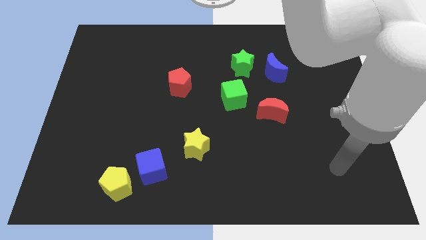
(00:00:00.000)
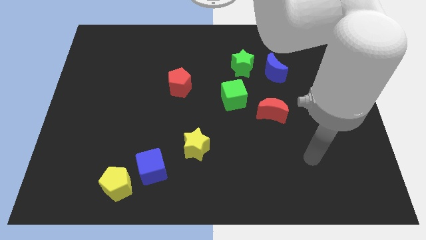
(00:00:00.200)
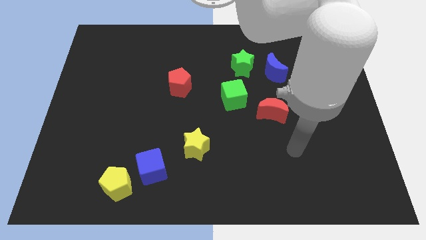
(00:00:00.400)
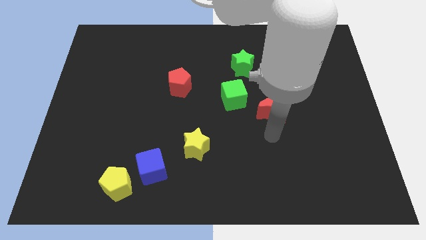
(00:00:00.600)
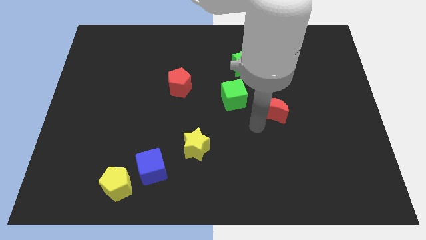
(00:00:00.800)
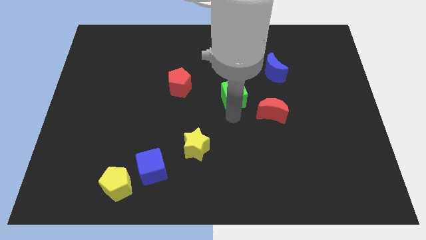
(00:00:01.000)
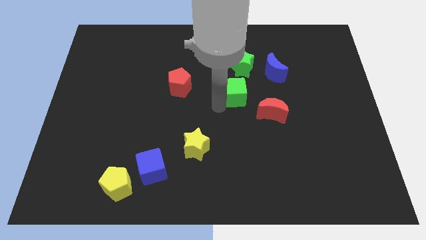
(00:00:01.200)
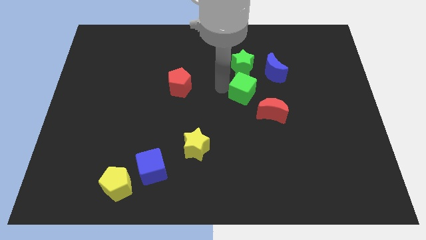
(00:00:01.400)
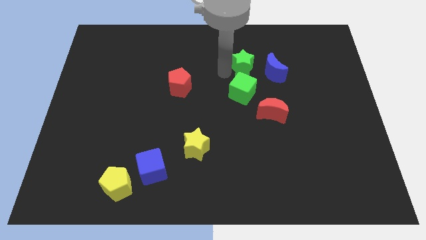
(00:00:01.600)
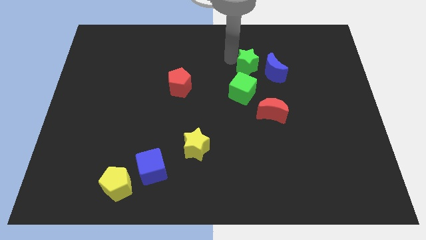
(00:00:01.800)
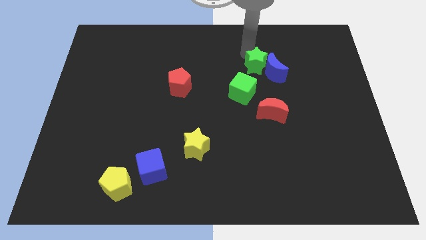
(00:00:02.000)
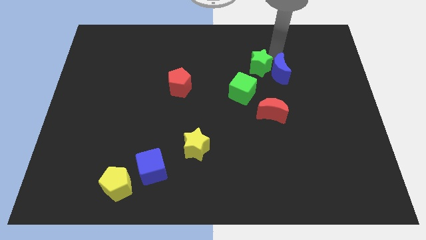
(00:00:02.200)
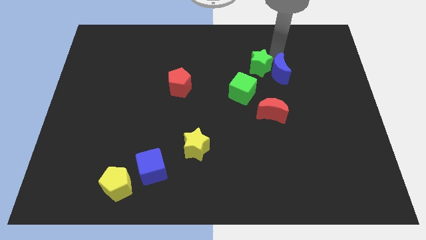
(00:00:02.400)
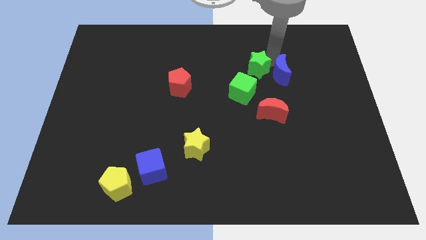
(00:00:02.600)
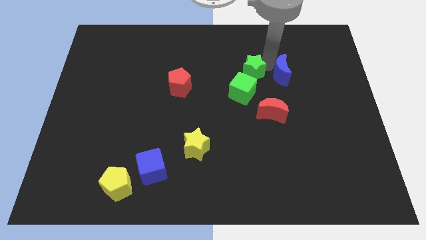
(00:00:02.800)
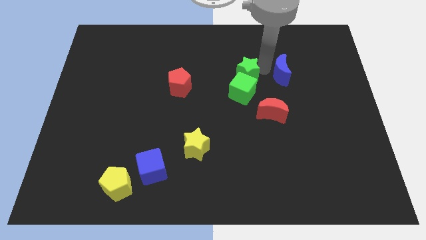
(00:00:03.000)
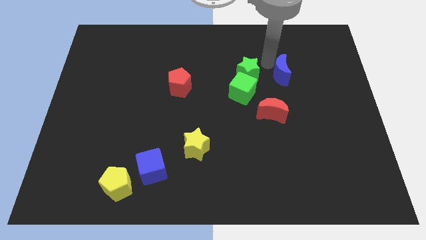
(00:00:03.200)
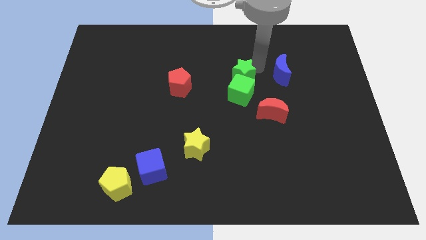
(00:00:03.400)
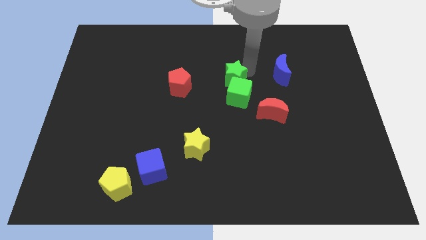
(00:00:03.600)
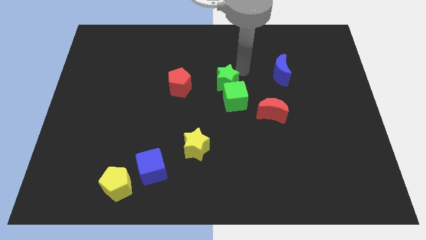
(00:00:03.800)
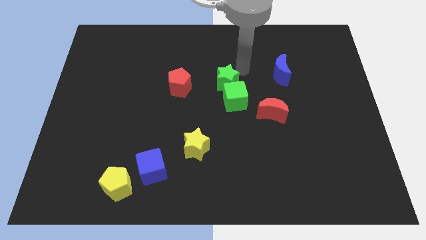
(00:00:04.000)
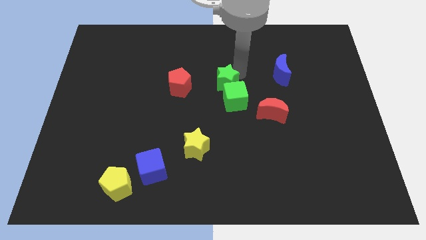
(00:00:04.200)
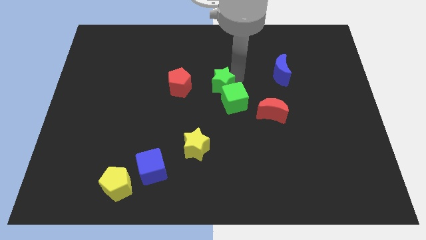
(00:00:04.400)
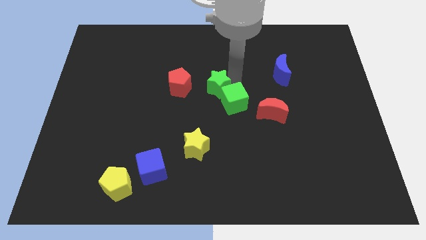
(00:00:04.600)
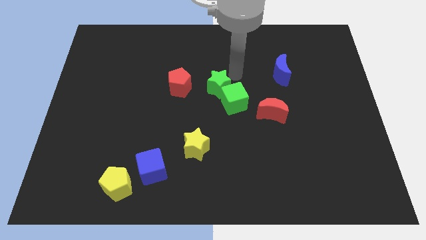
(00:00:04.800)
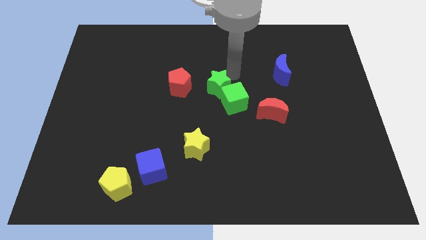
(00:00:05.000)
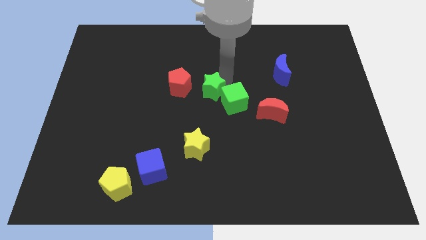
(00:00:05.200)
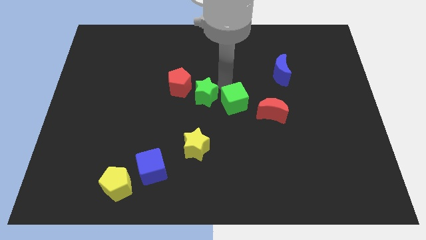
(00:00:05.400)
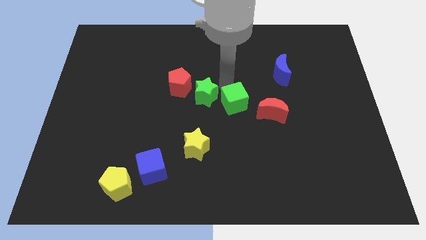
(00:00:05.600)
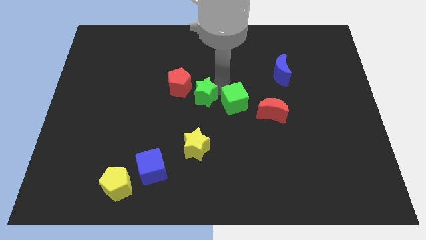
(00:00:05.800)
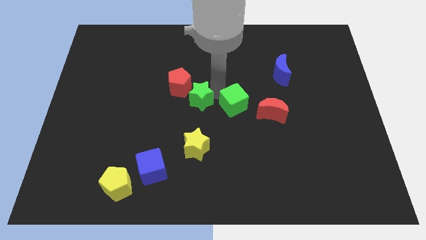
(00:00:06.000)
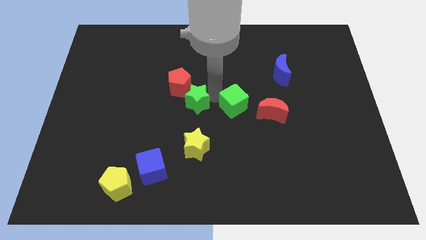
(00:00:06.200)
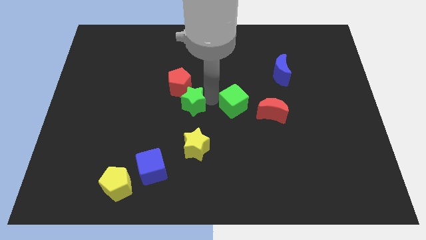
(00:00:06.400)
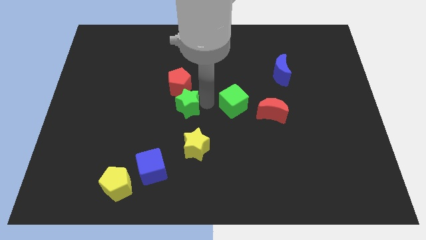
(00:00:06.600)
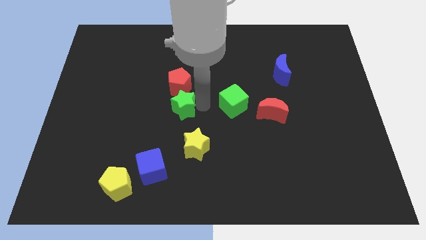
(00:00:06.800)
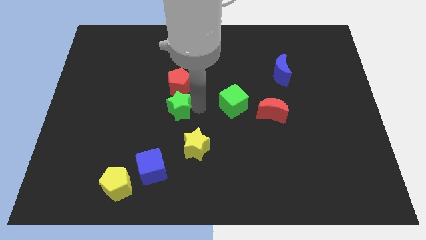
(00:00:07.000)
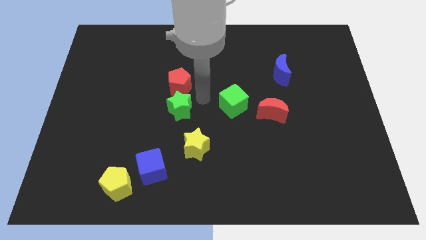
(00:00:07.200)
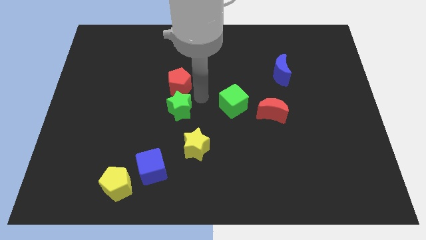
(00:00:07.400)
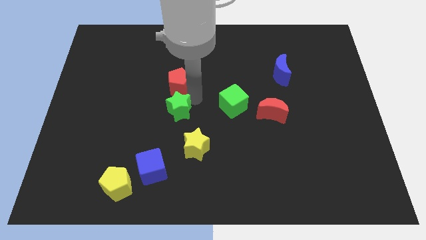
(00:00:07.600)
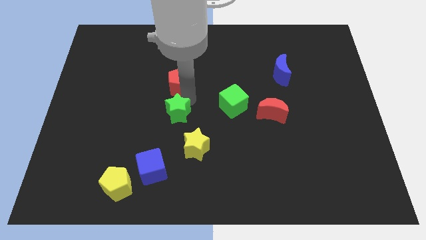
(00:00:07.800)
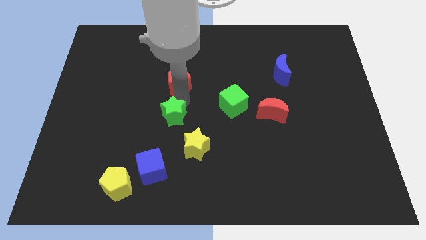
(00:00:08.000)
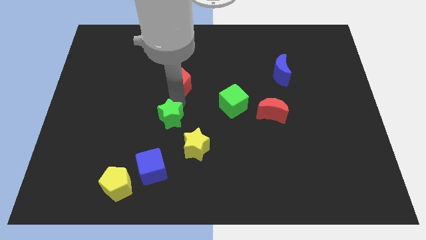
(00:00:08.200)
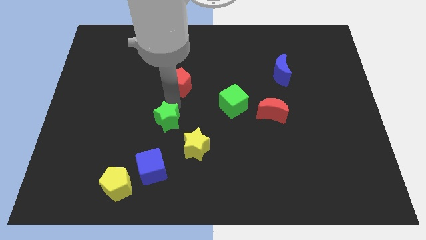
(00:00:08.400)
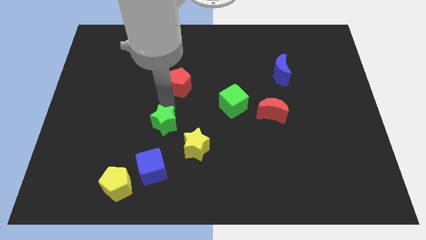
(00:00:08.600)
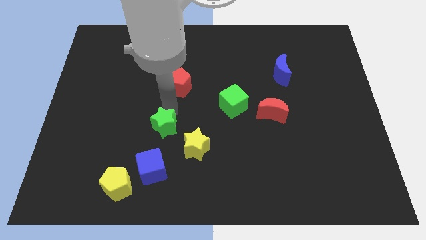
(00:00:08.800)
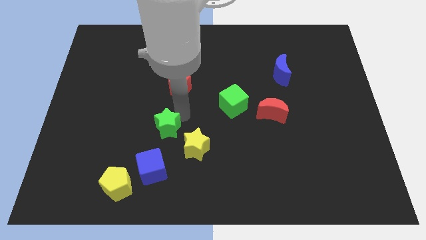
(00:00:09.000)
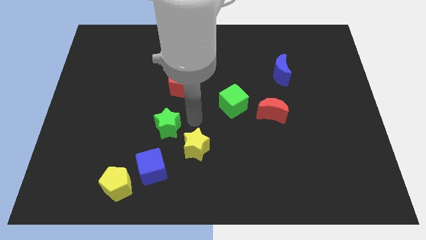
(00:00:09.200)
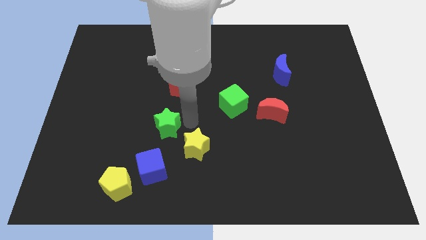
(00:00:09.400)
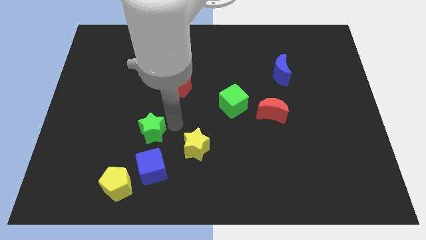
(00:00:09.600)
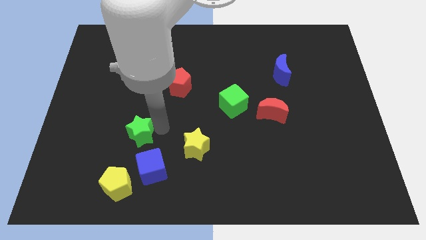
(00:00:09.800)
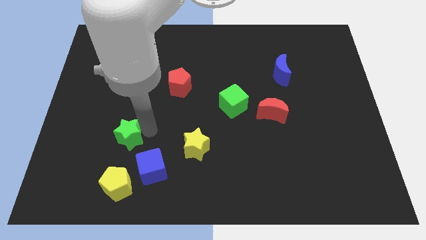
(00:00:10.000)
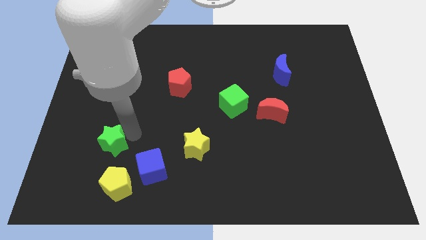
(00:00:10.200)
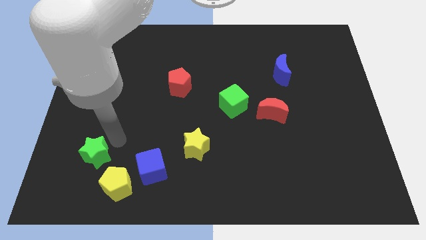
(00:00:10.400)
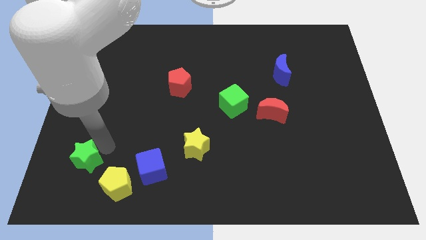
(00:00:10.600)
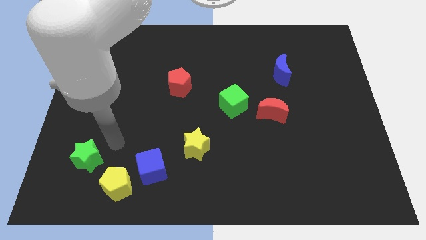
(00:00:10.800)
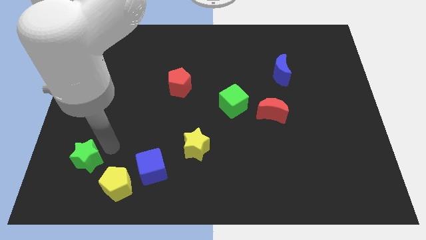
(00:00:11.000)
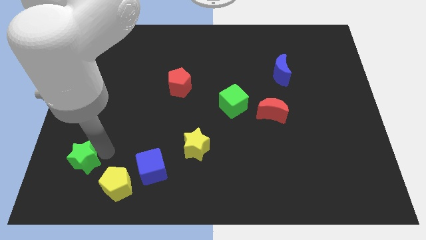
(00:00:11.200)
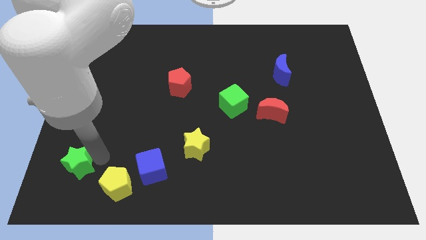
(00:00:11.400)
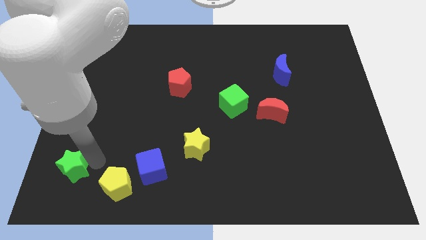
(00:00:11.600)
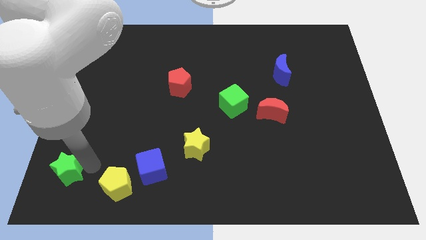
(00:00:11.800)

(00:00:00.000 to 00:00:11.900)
put the green star to the bottom left

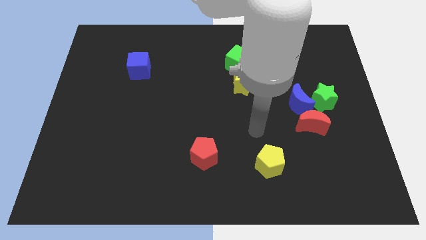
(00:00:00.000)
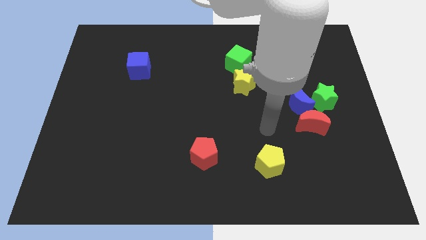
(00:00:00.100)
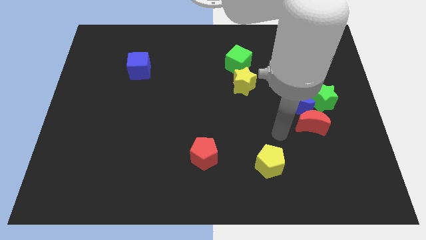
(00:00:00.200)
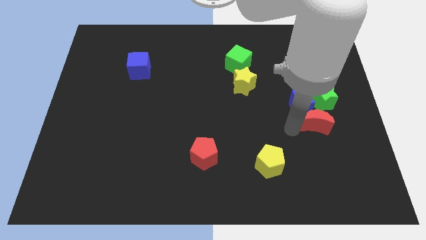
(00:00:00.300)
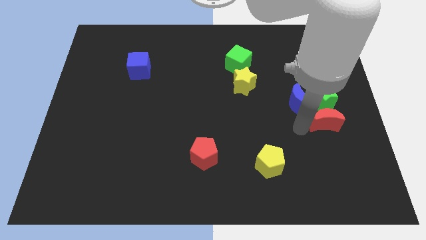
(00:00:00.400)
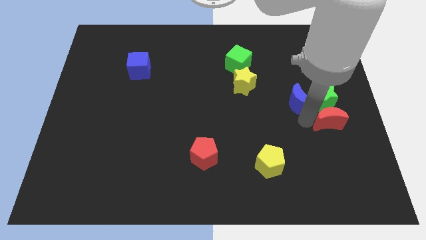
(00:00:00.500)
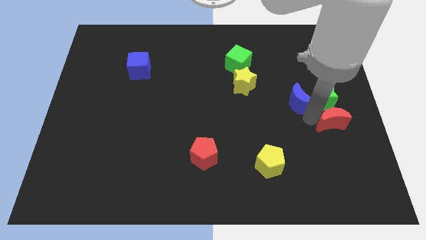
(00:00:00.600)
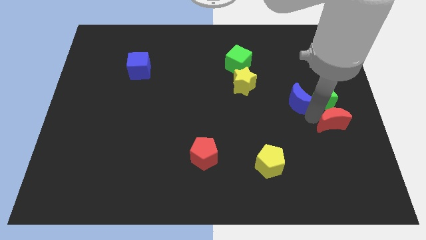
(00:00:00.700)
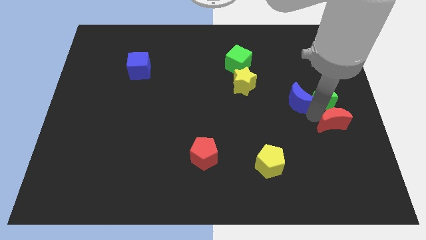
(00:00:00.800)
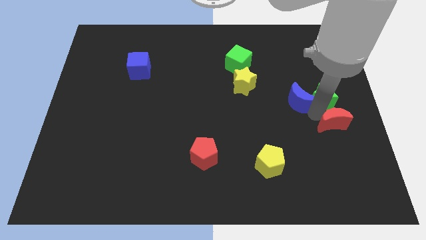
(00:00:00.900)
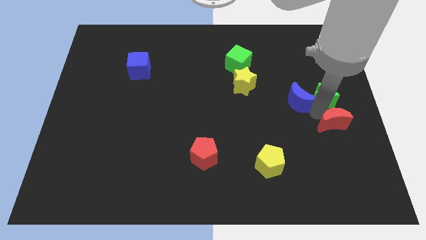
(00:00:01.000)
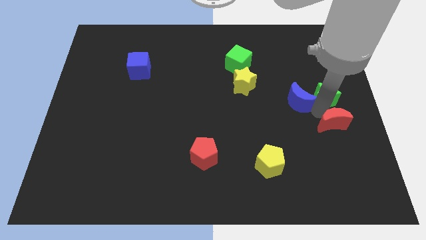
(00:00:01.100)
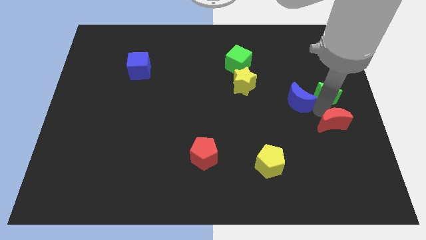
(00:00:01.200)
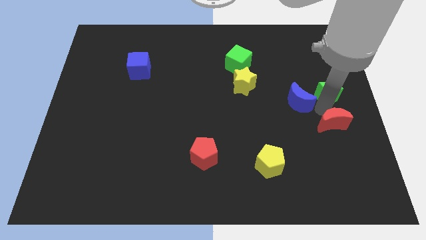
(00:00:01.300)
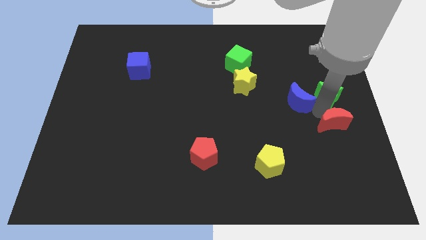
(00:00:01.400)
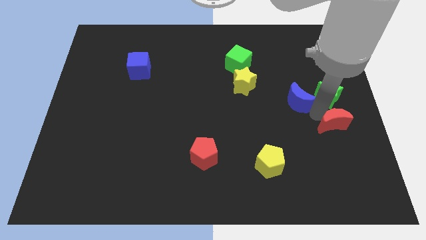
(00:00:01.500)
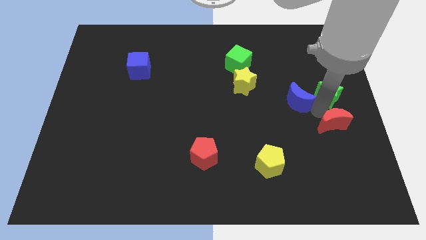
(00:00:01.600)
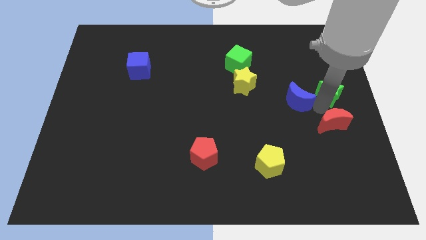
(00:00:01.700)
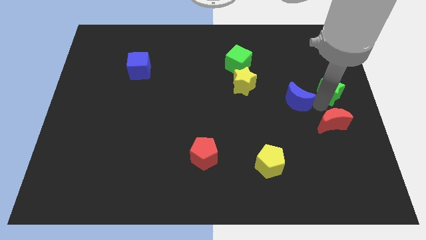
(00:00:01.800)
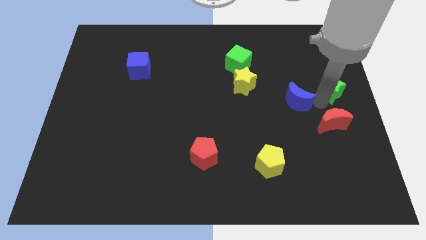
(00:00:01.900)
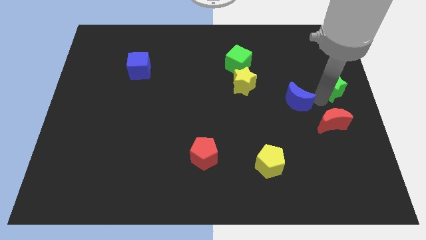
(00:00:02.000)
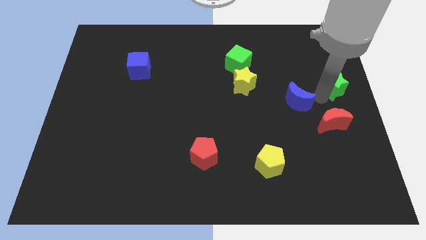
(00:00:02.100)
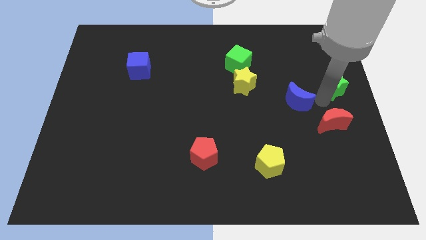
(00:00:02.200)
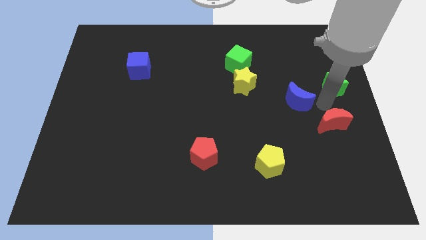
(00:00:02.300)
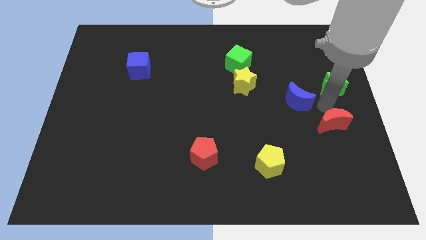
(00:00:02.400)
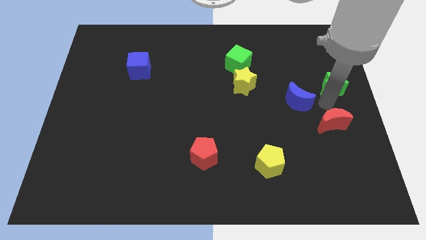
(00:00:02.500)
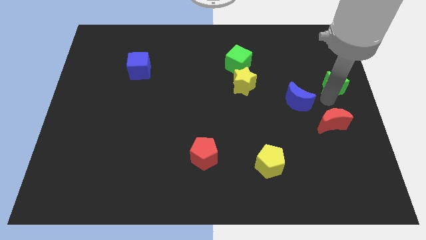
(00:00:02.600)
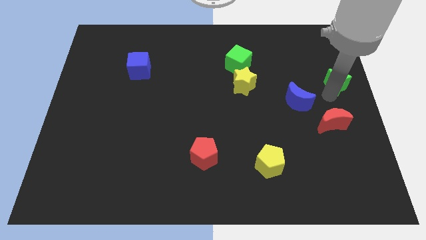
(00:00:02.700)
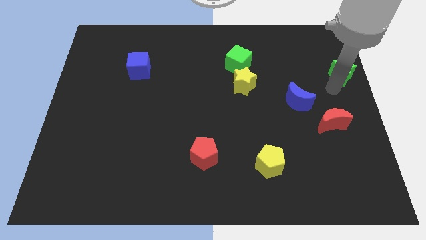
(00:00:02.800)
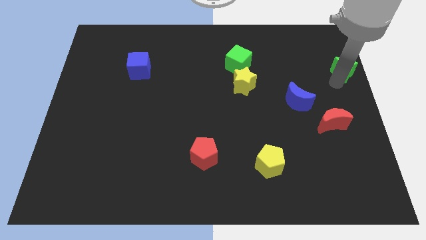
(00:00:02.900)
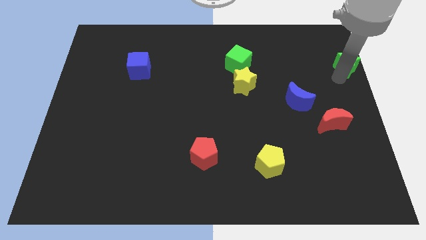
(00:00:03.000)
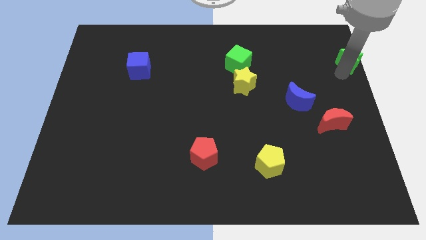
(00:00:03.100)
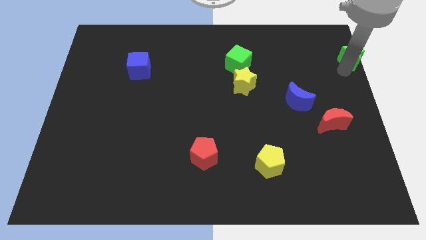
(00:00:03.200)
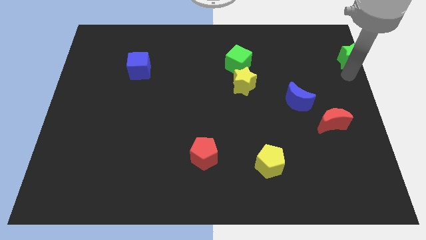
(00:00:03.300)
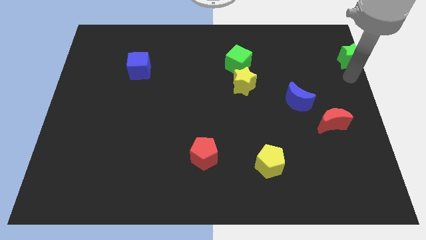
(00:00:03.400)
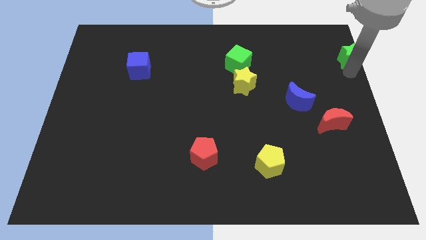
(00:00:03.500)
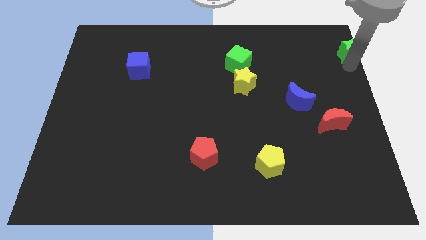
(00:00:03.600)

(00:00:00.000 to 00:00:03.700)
slide the green star to the upper right corner
